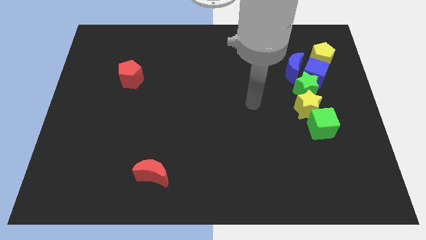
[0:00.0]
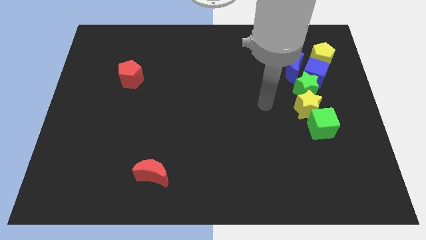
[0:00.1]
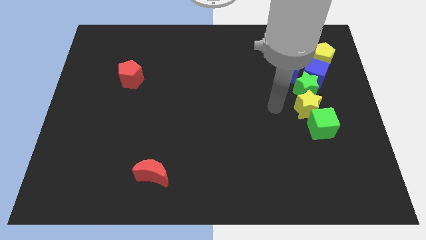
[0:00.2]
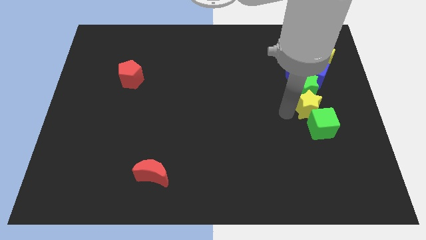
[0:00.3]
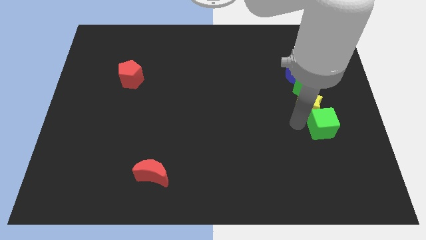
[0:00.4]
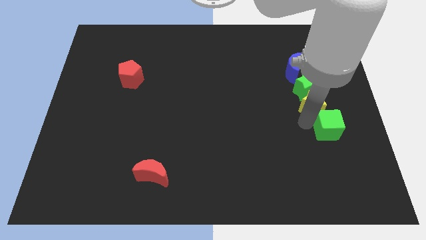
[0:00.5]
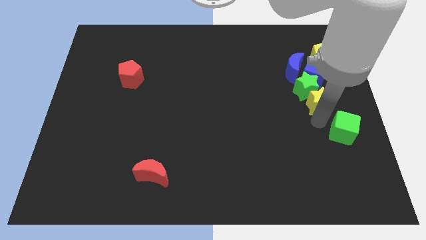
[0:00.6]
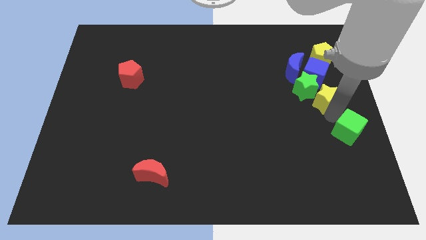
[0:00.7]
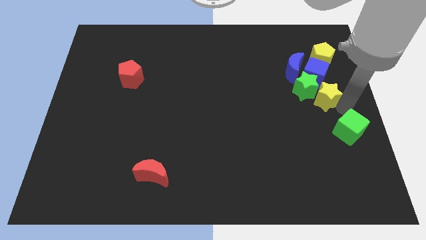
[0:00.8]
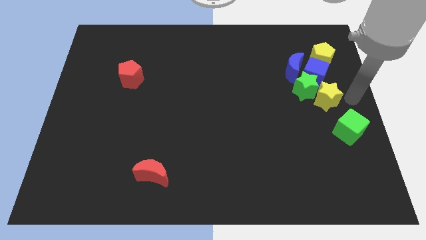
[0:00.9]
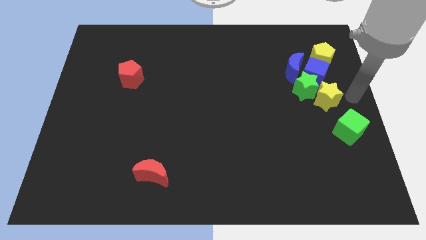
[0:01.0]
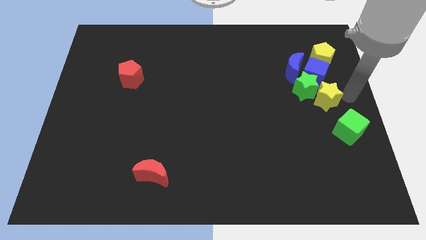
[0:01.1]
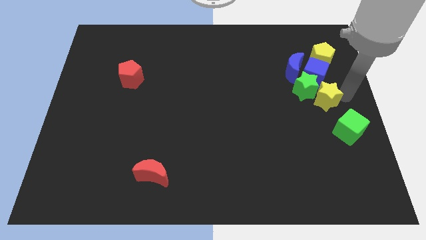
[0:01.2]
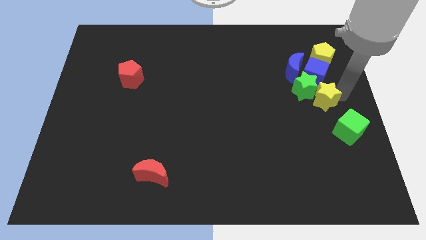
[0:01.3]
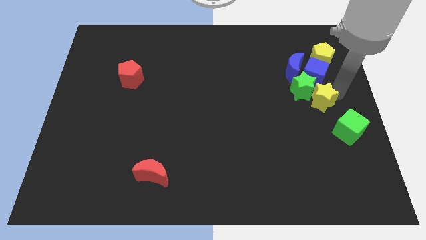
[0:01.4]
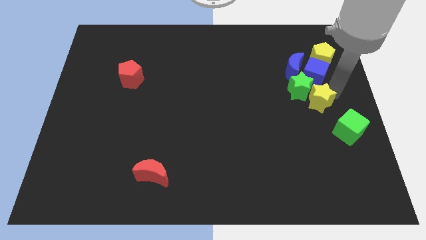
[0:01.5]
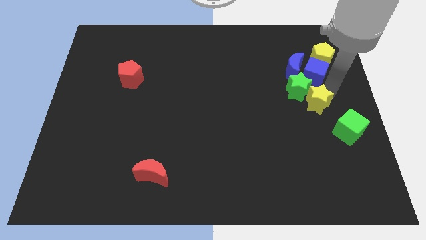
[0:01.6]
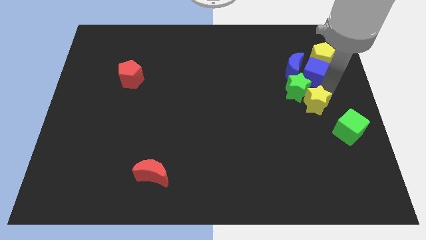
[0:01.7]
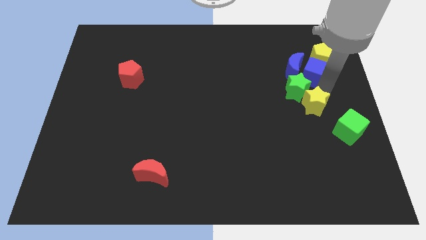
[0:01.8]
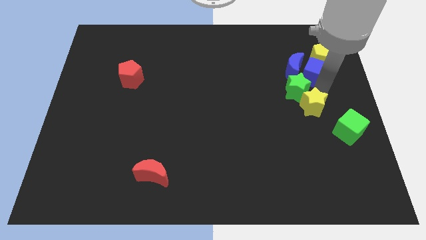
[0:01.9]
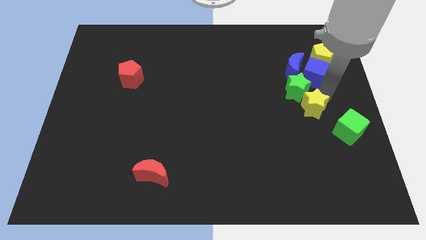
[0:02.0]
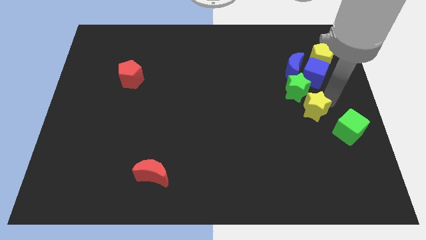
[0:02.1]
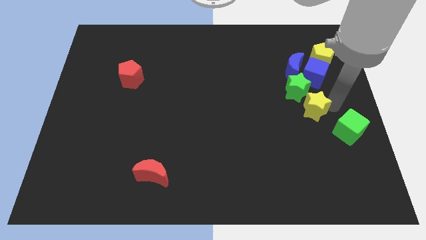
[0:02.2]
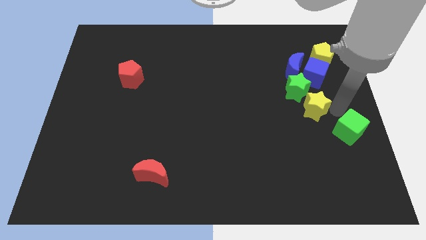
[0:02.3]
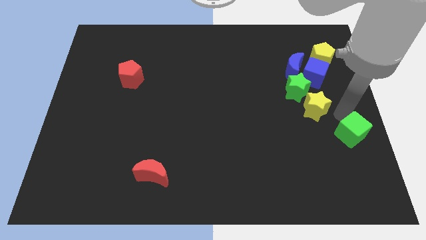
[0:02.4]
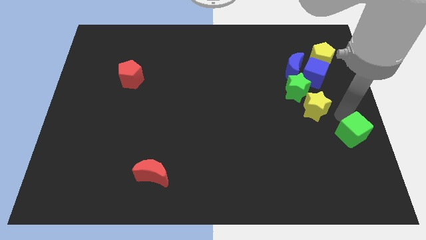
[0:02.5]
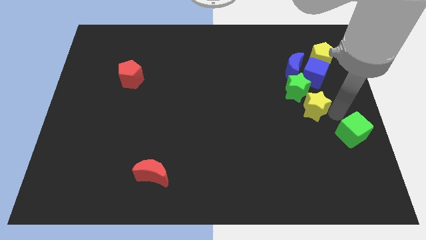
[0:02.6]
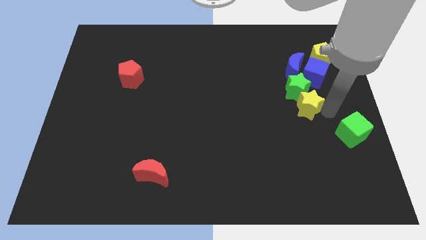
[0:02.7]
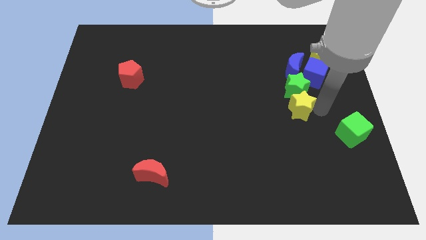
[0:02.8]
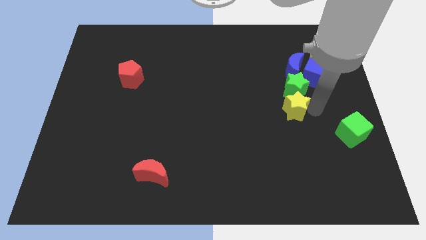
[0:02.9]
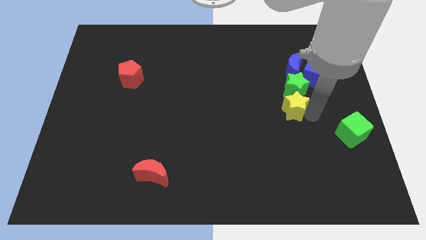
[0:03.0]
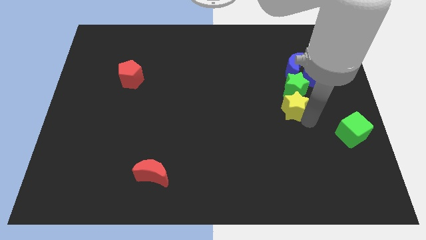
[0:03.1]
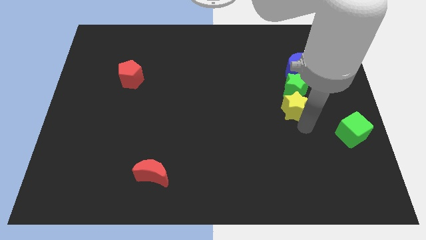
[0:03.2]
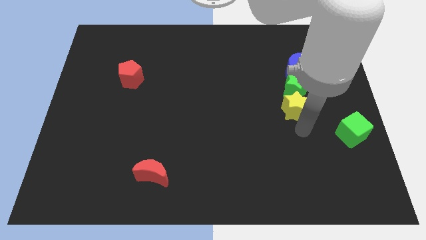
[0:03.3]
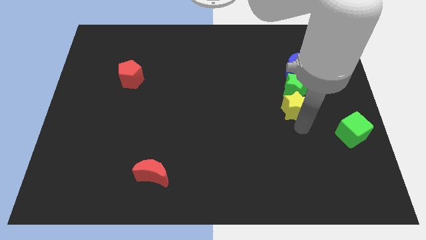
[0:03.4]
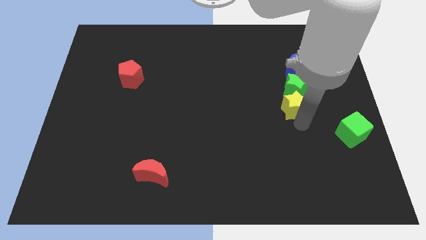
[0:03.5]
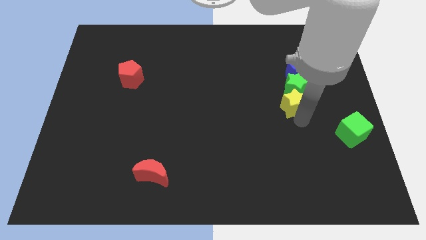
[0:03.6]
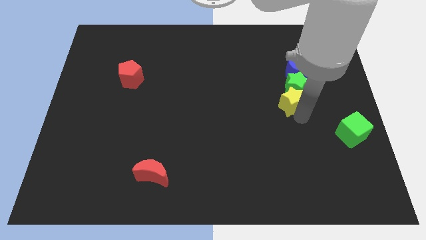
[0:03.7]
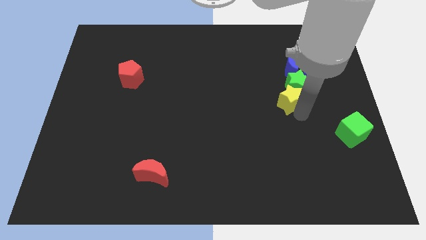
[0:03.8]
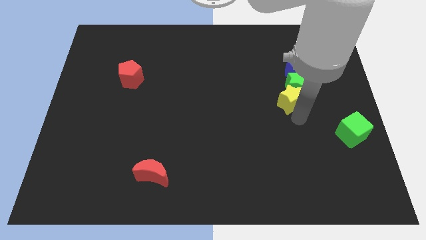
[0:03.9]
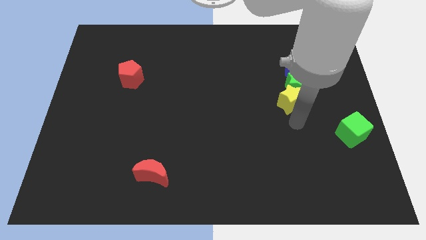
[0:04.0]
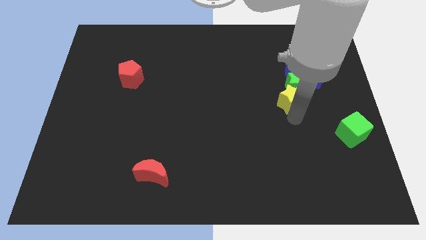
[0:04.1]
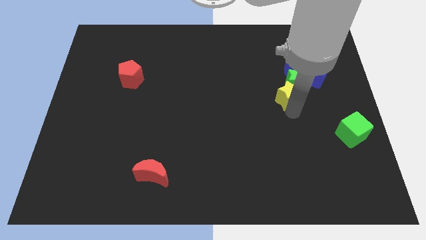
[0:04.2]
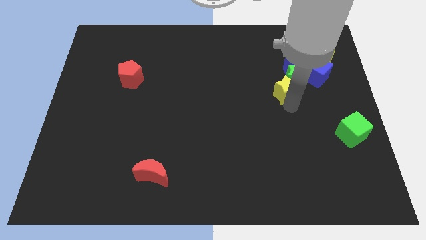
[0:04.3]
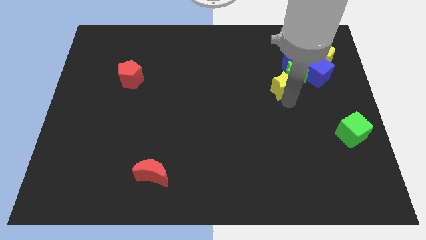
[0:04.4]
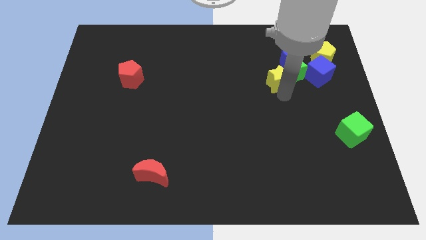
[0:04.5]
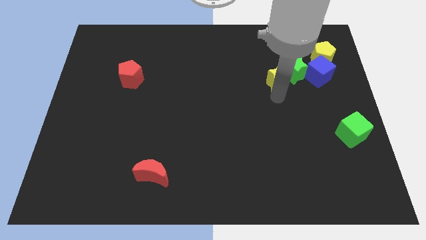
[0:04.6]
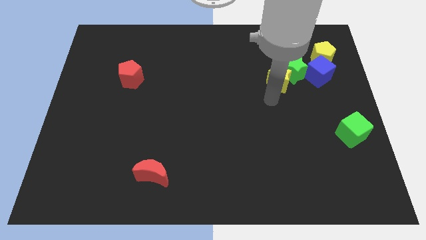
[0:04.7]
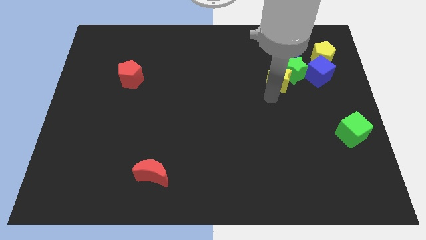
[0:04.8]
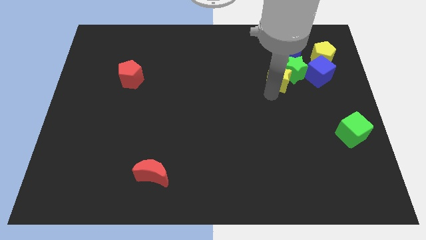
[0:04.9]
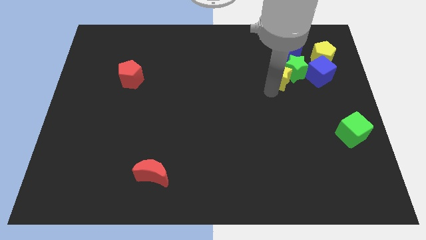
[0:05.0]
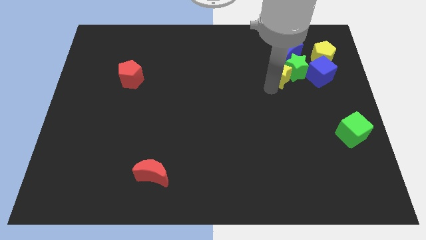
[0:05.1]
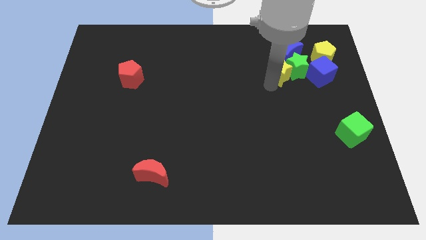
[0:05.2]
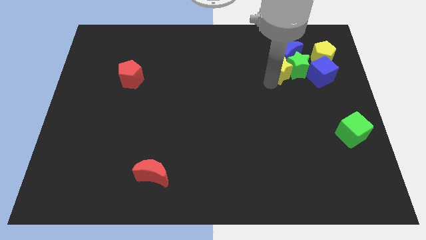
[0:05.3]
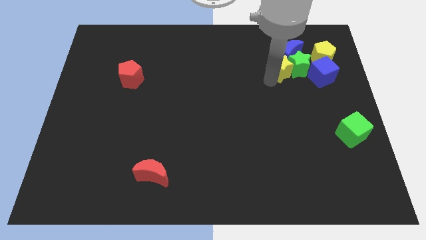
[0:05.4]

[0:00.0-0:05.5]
move the yellow star to the blue moon

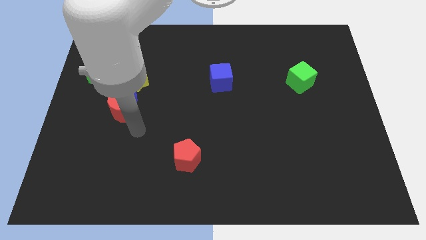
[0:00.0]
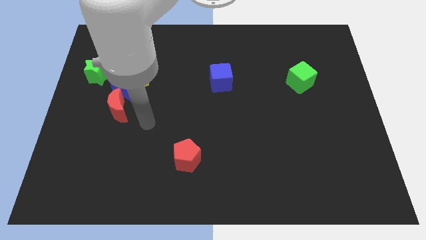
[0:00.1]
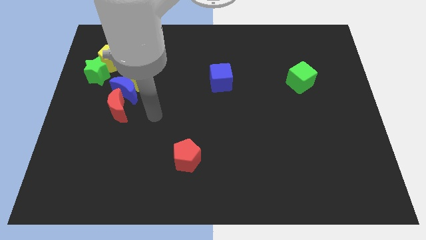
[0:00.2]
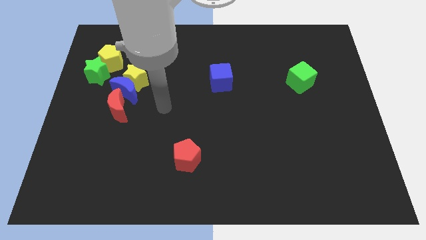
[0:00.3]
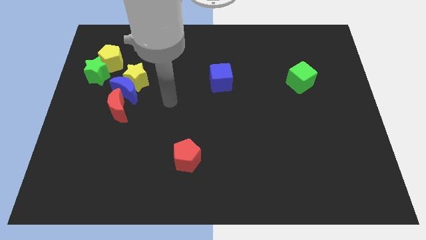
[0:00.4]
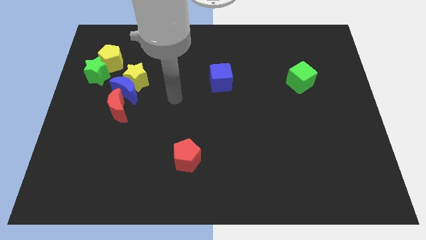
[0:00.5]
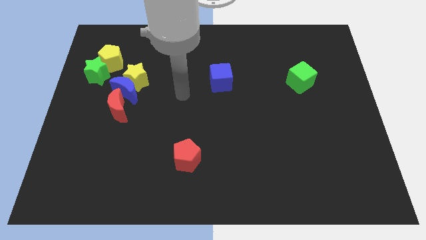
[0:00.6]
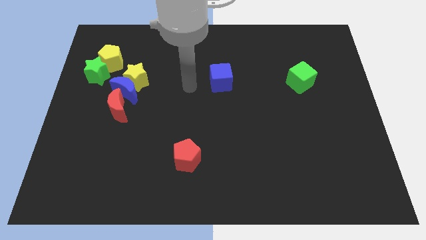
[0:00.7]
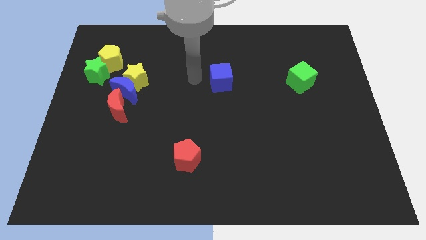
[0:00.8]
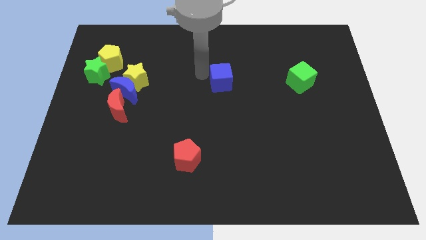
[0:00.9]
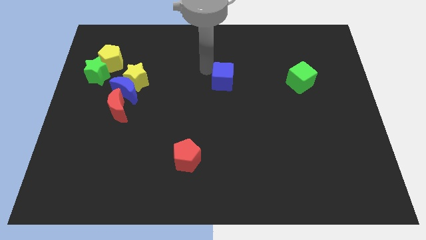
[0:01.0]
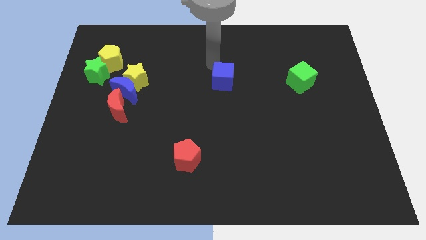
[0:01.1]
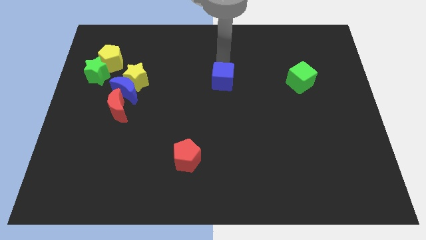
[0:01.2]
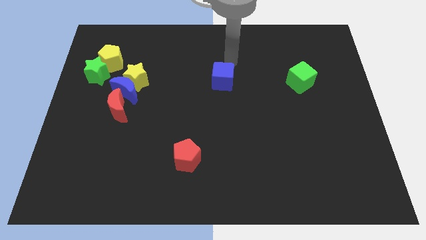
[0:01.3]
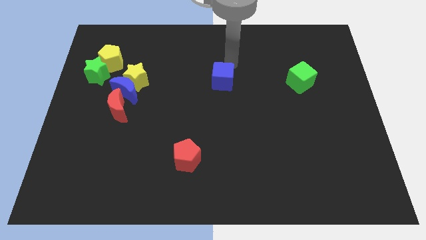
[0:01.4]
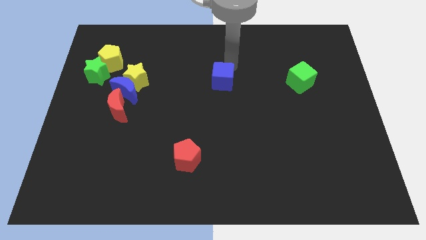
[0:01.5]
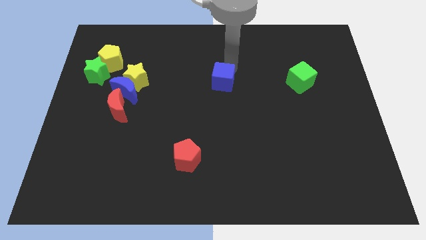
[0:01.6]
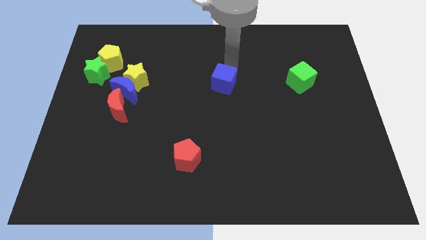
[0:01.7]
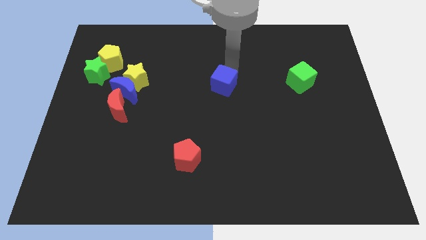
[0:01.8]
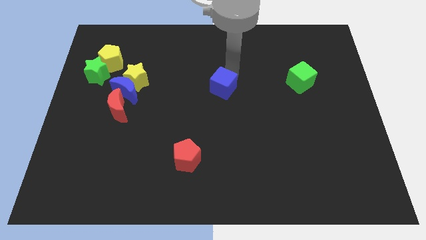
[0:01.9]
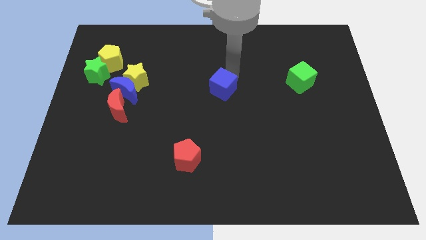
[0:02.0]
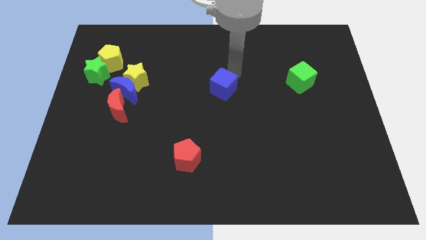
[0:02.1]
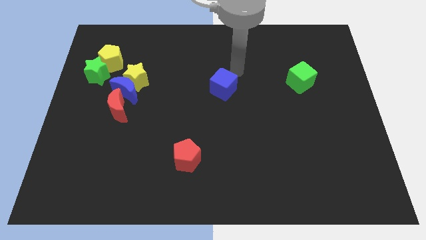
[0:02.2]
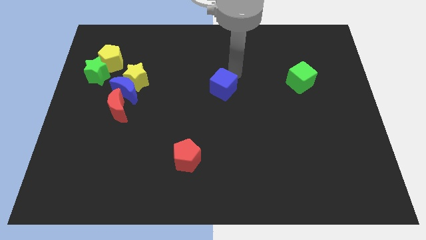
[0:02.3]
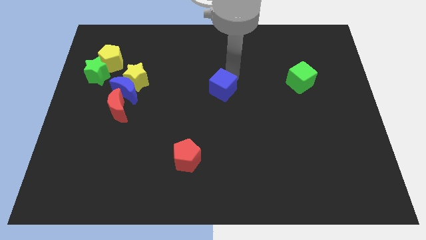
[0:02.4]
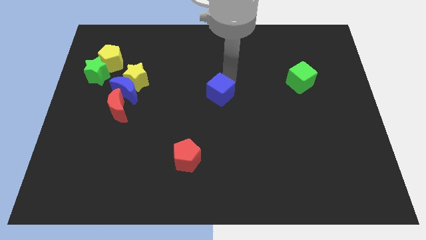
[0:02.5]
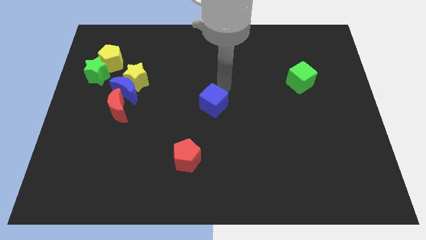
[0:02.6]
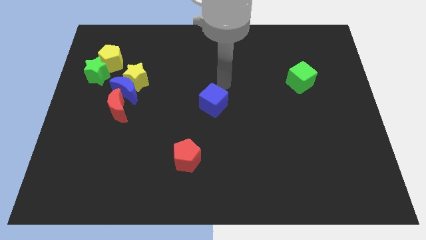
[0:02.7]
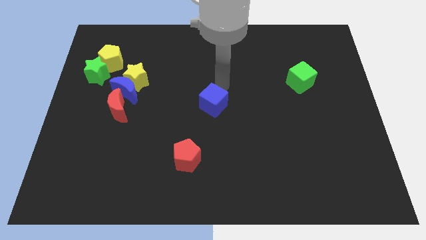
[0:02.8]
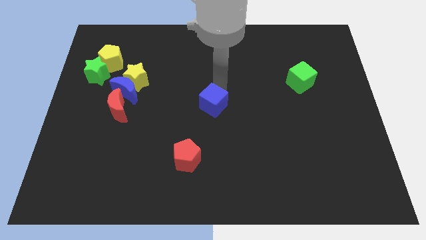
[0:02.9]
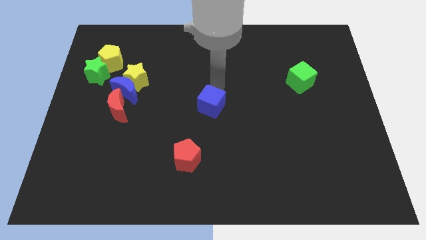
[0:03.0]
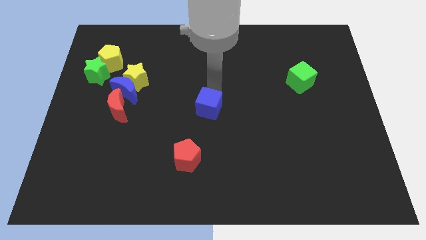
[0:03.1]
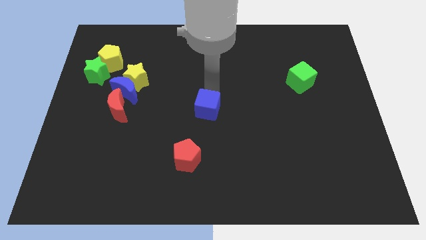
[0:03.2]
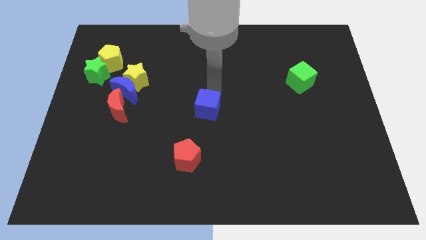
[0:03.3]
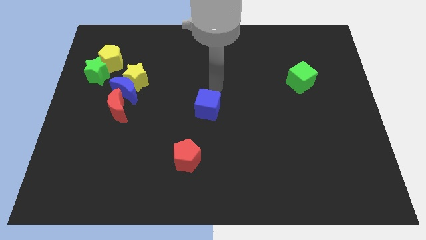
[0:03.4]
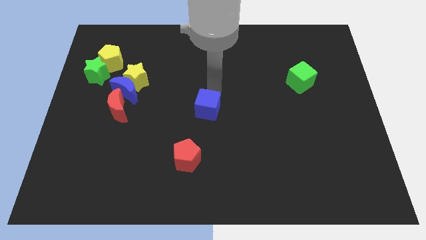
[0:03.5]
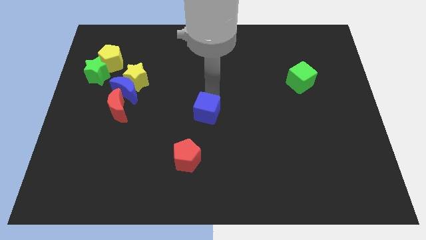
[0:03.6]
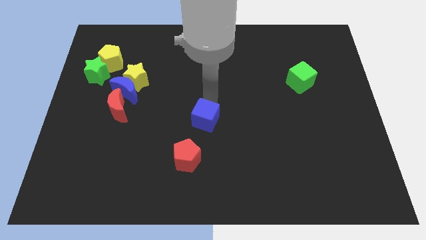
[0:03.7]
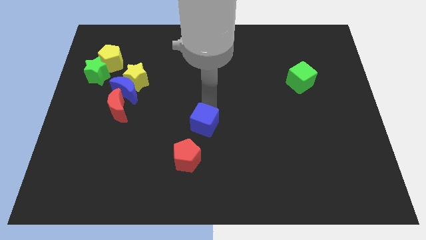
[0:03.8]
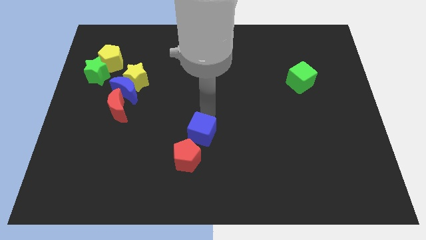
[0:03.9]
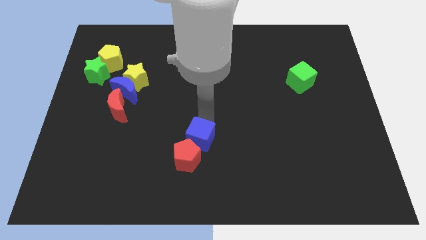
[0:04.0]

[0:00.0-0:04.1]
move the blue cube towards the red pentagon
